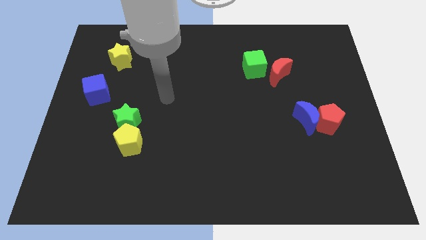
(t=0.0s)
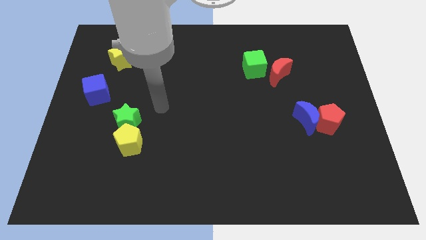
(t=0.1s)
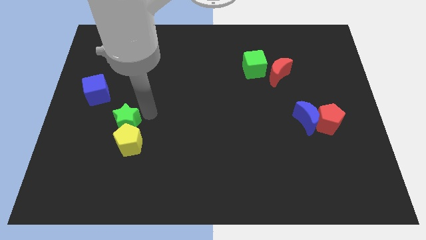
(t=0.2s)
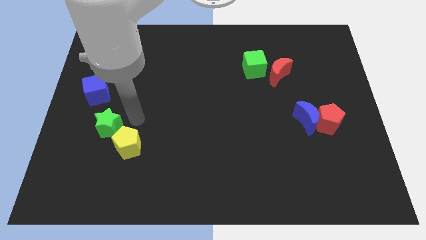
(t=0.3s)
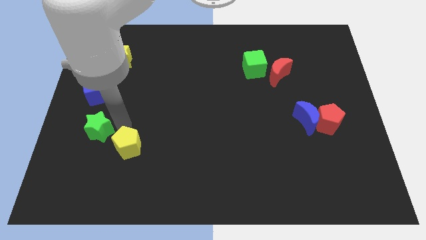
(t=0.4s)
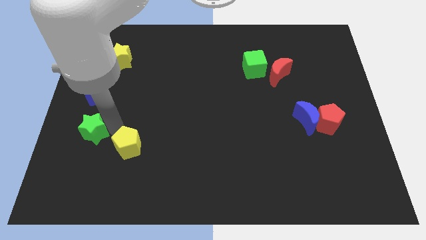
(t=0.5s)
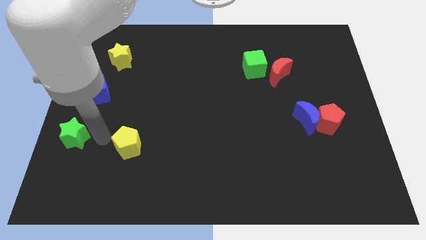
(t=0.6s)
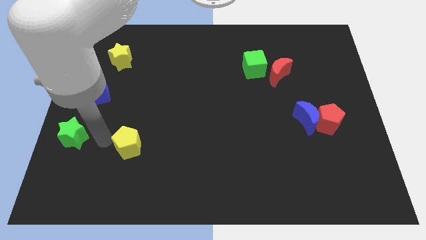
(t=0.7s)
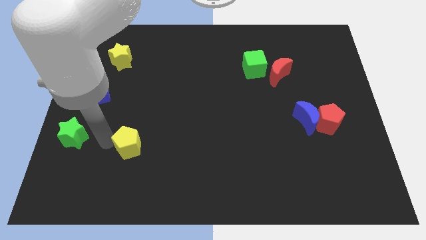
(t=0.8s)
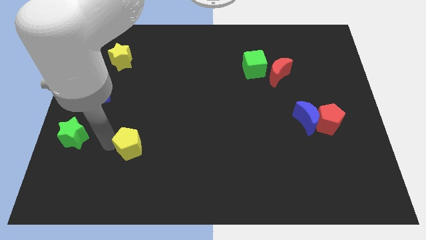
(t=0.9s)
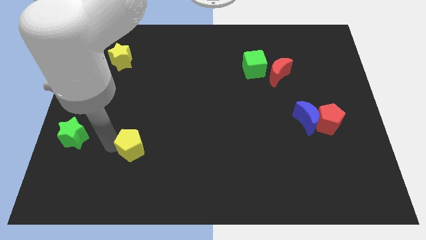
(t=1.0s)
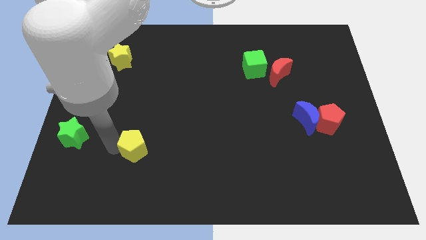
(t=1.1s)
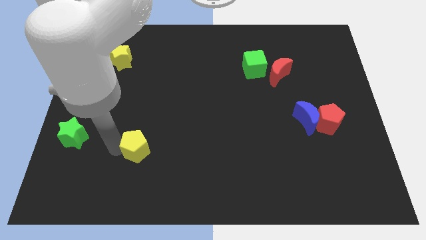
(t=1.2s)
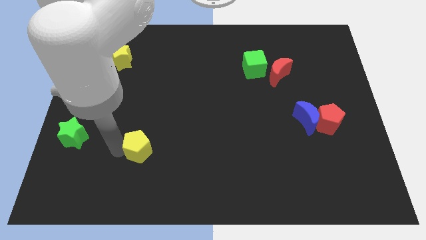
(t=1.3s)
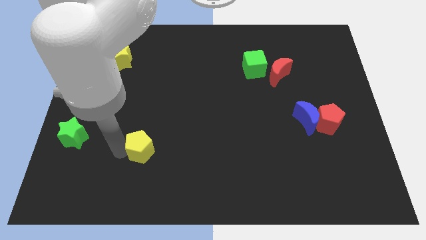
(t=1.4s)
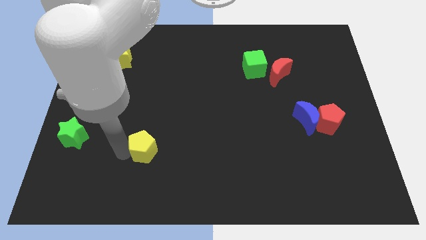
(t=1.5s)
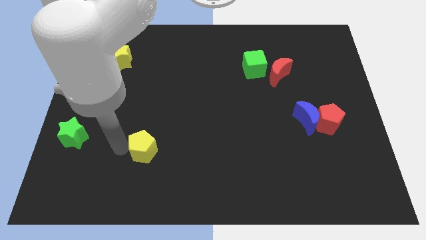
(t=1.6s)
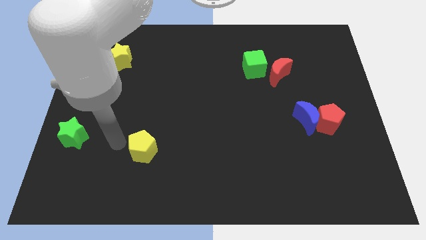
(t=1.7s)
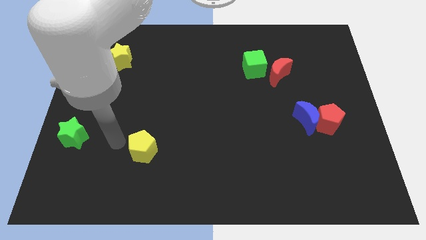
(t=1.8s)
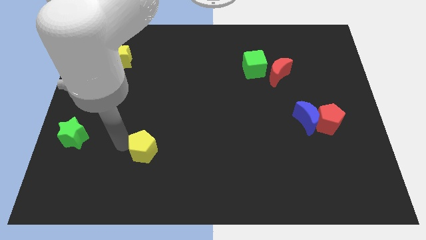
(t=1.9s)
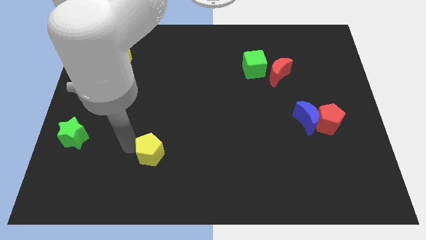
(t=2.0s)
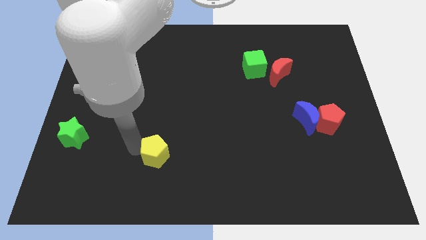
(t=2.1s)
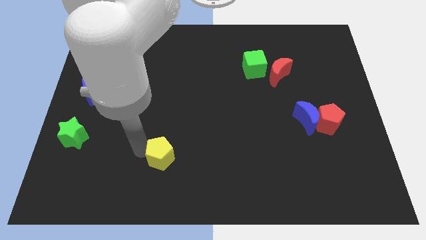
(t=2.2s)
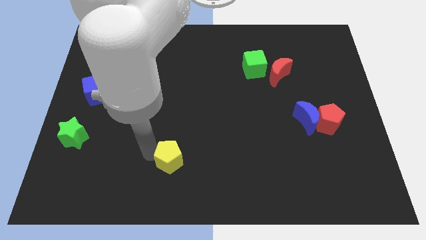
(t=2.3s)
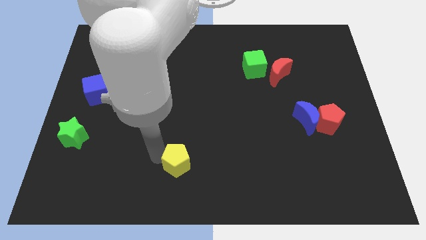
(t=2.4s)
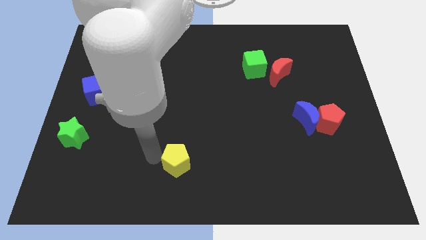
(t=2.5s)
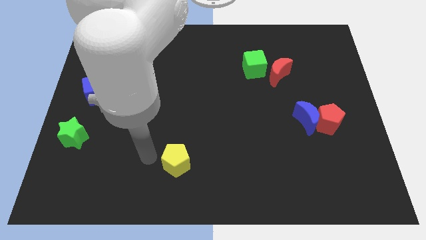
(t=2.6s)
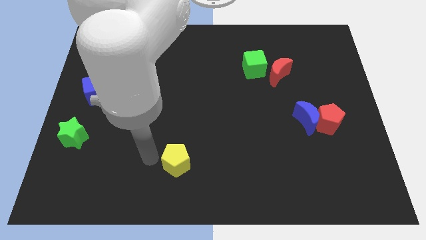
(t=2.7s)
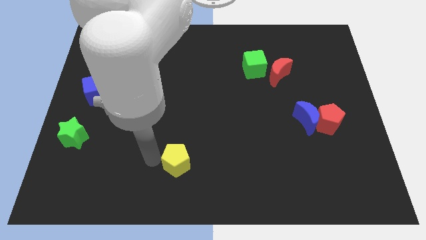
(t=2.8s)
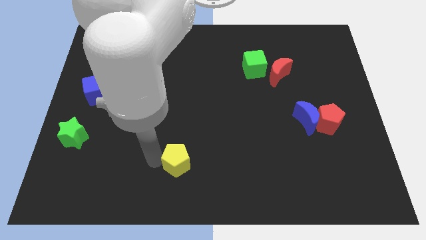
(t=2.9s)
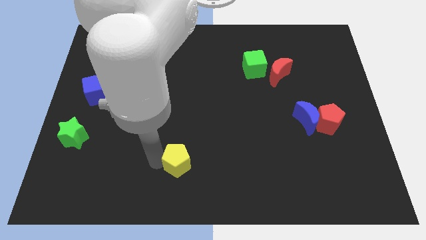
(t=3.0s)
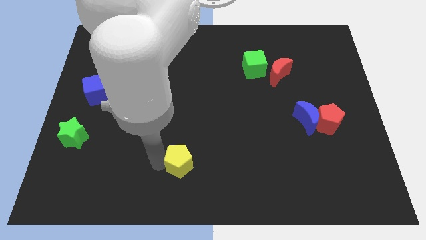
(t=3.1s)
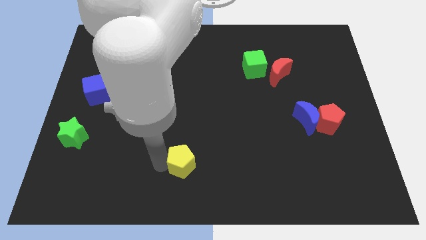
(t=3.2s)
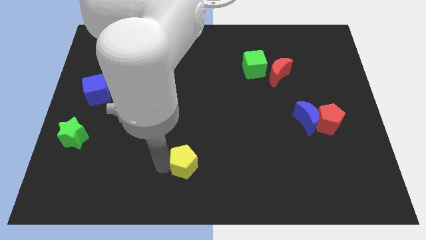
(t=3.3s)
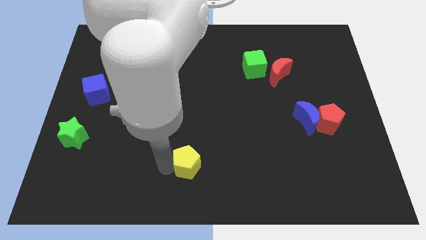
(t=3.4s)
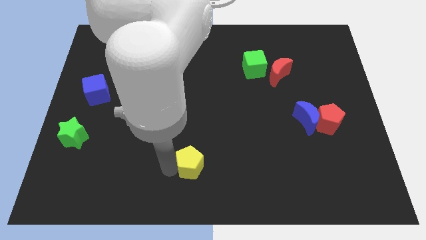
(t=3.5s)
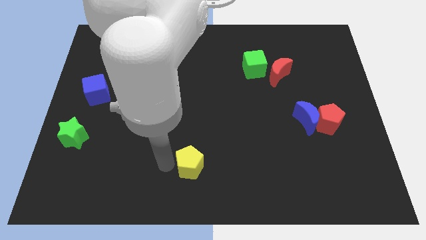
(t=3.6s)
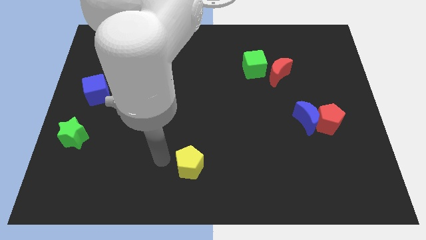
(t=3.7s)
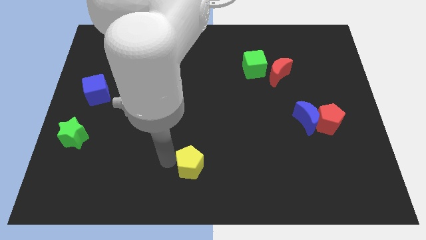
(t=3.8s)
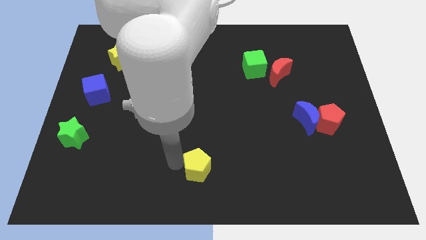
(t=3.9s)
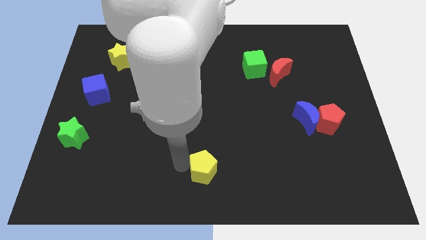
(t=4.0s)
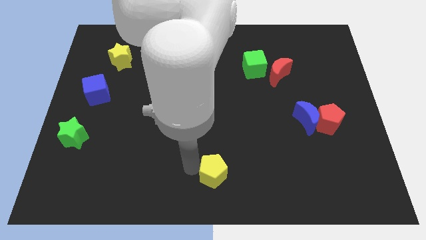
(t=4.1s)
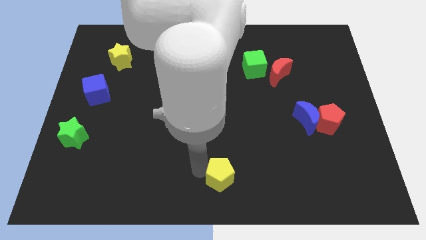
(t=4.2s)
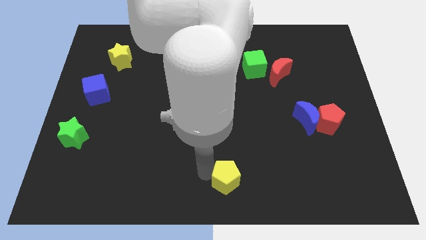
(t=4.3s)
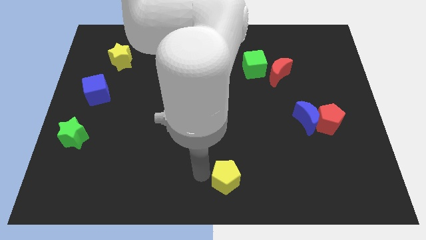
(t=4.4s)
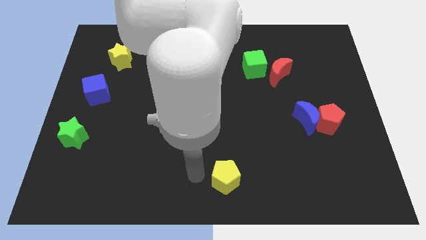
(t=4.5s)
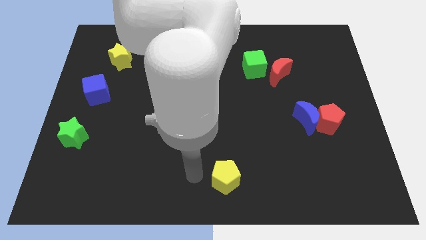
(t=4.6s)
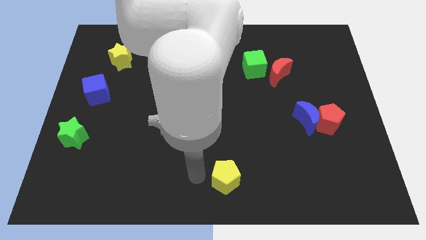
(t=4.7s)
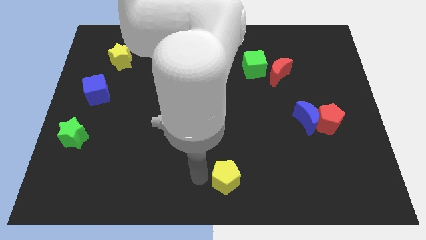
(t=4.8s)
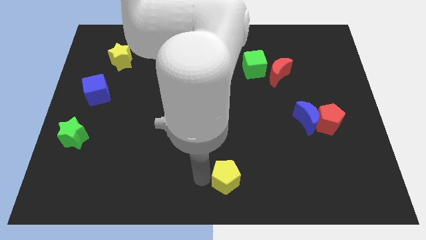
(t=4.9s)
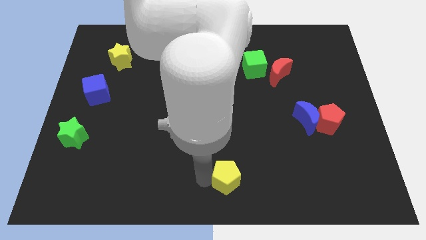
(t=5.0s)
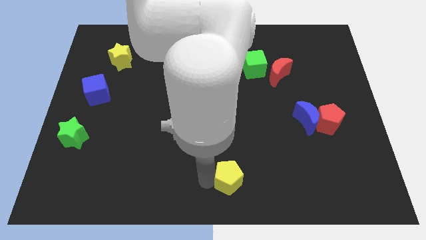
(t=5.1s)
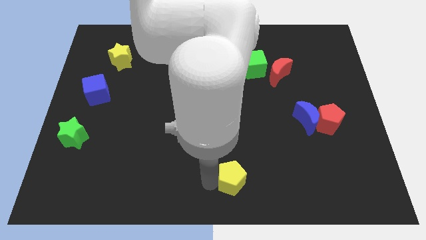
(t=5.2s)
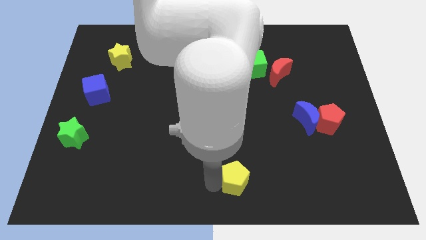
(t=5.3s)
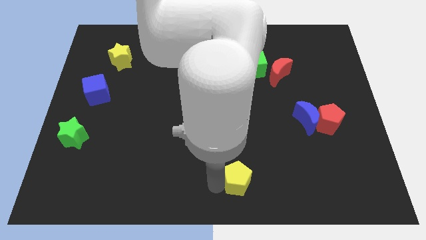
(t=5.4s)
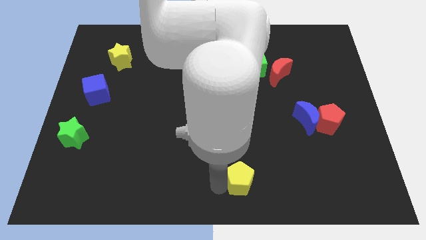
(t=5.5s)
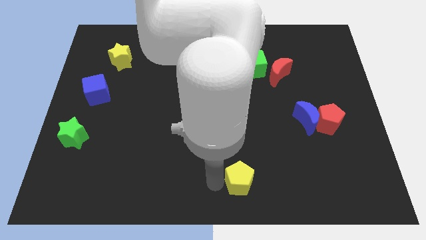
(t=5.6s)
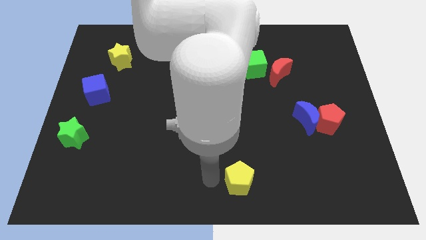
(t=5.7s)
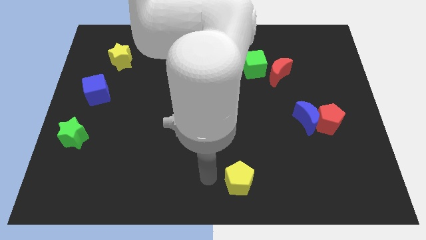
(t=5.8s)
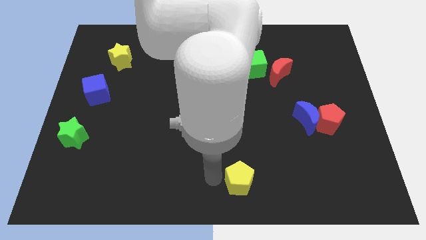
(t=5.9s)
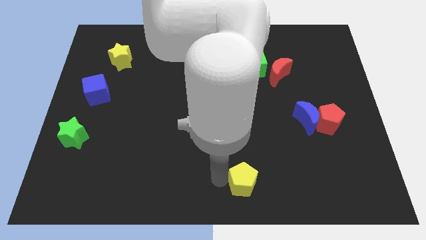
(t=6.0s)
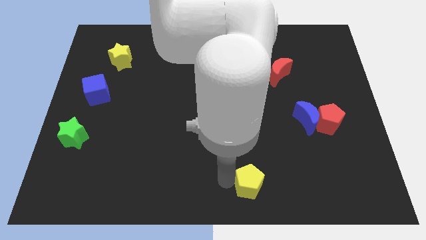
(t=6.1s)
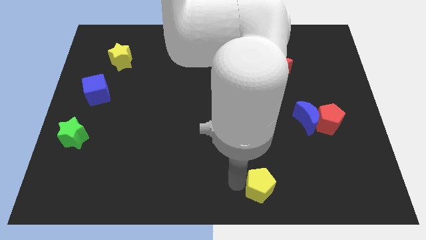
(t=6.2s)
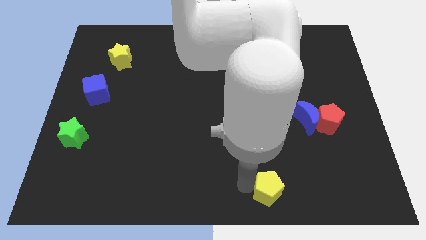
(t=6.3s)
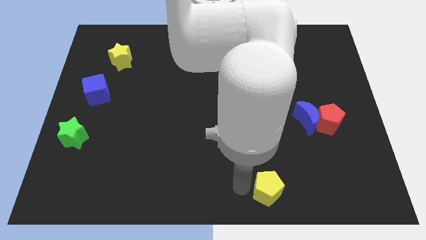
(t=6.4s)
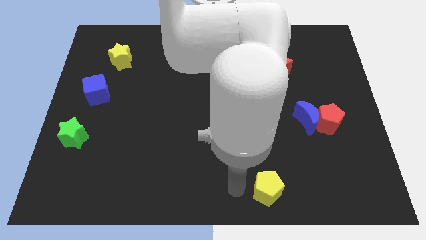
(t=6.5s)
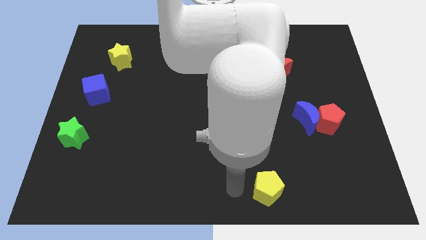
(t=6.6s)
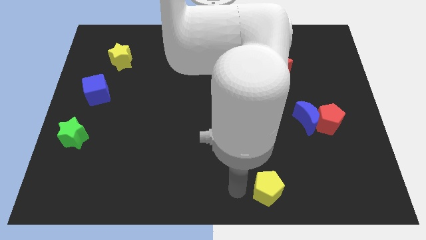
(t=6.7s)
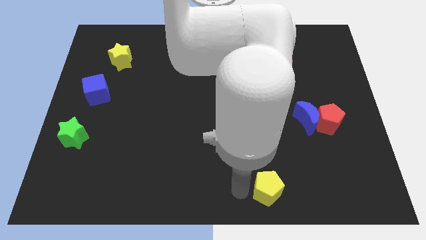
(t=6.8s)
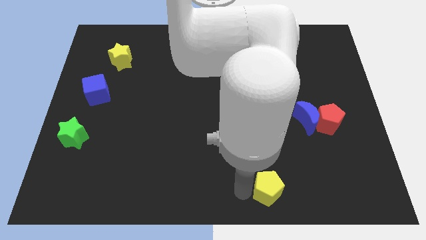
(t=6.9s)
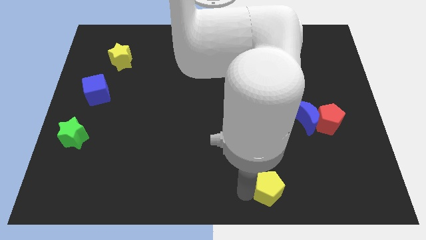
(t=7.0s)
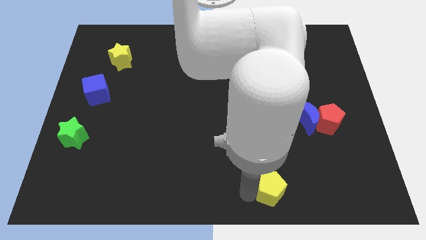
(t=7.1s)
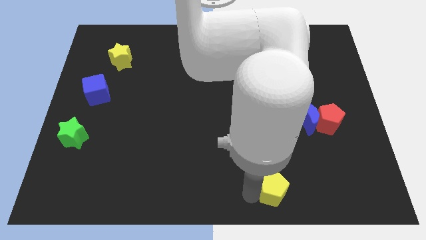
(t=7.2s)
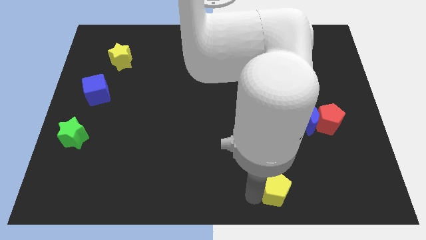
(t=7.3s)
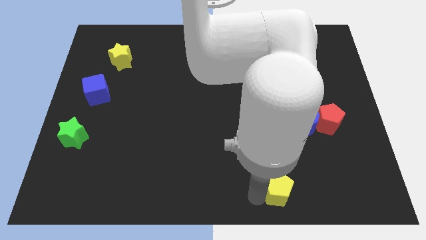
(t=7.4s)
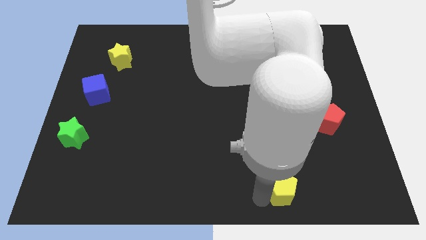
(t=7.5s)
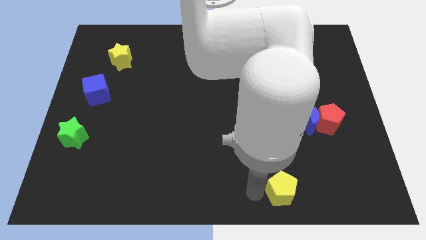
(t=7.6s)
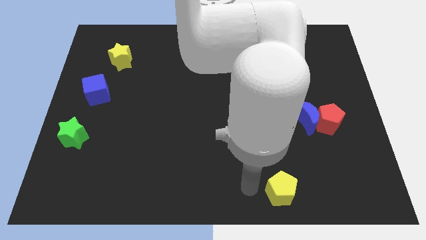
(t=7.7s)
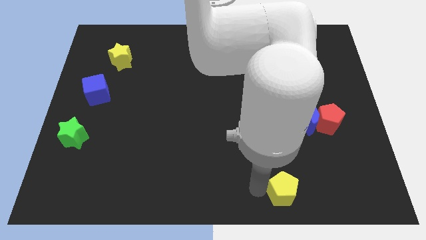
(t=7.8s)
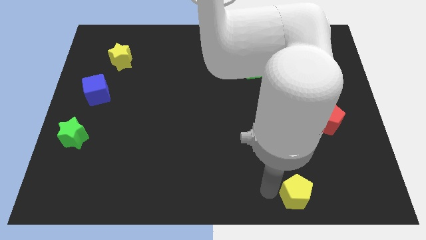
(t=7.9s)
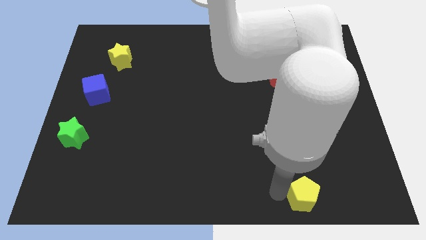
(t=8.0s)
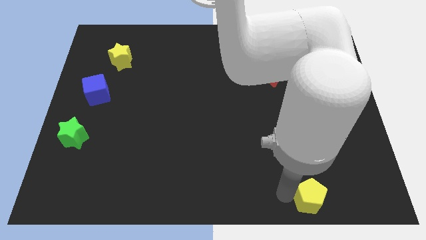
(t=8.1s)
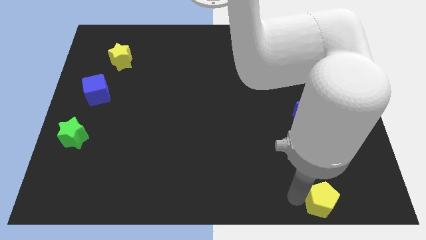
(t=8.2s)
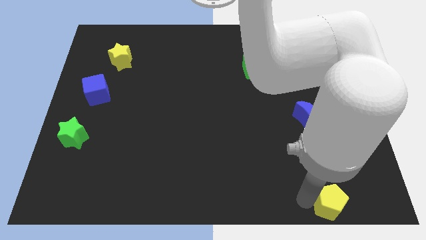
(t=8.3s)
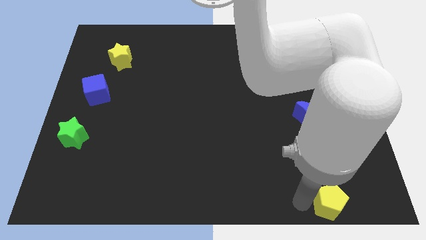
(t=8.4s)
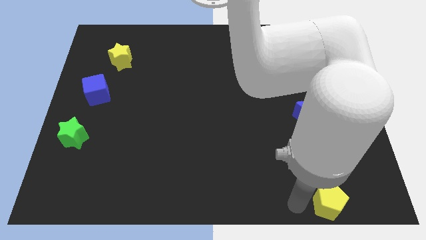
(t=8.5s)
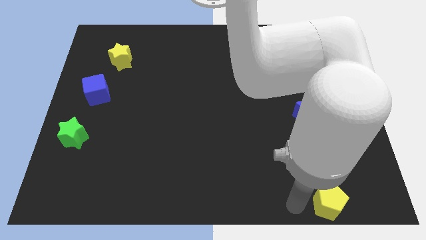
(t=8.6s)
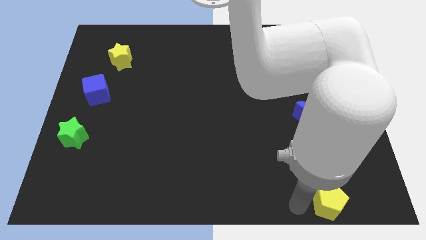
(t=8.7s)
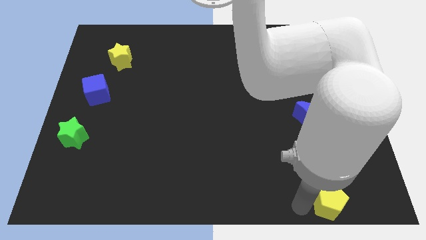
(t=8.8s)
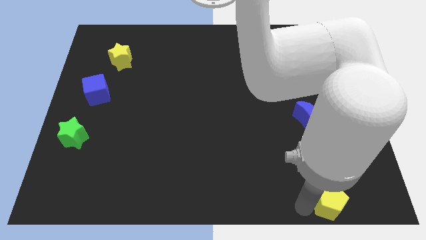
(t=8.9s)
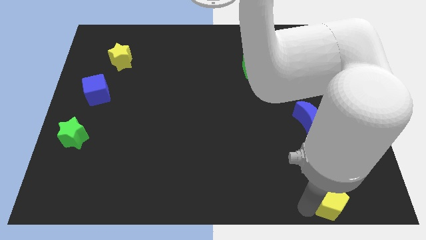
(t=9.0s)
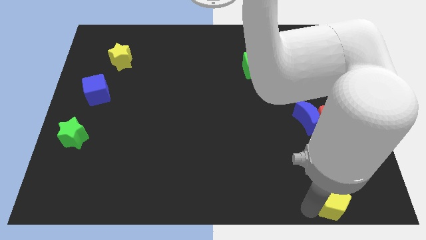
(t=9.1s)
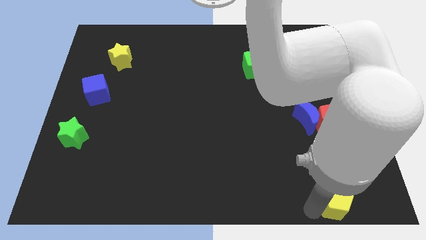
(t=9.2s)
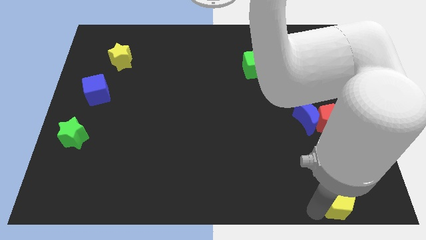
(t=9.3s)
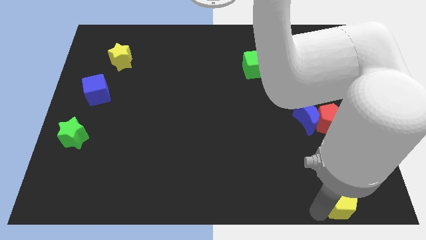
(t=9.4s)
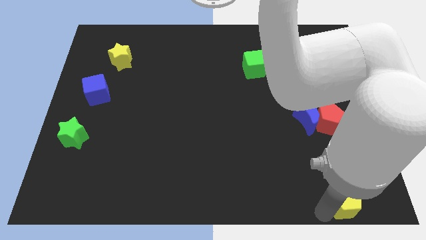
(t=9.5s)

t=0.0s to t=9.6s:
move the yellow pentagon to the bottom right of the board
